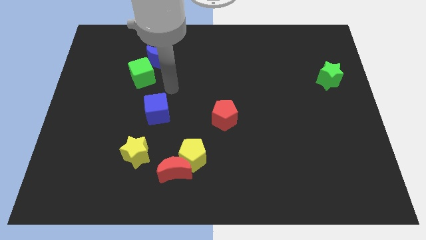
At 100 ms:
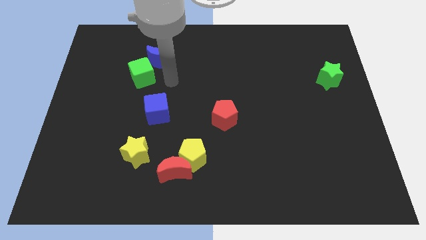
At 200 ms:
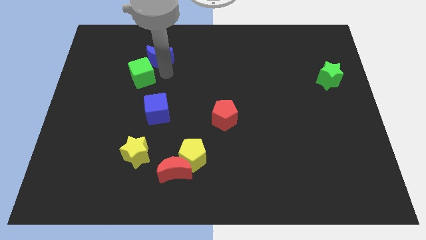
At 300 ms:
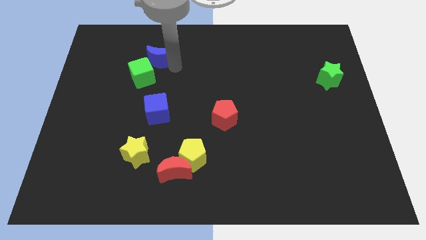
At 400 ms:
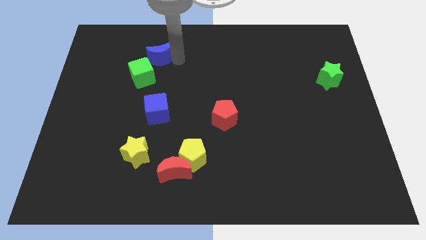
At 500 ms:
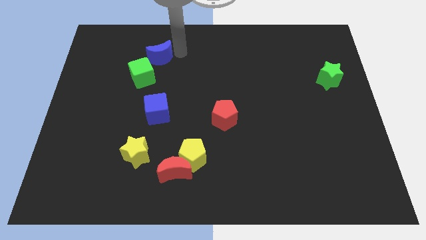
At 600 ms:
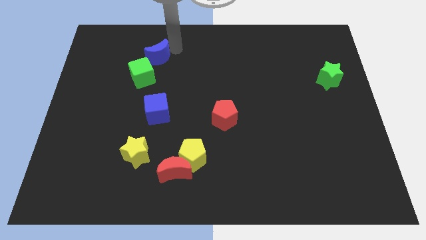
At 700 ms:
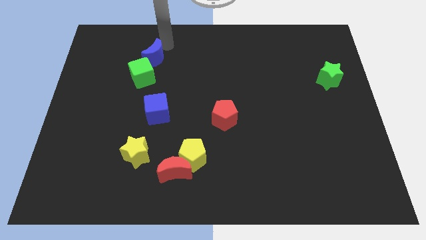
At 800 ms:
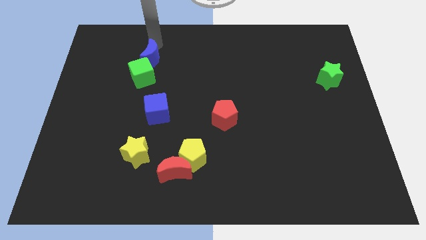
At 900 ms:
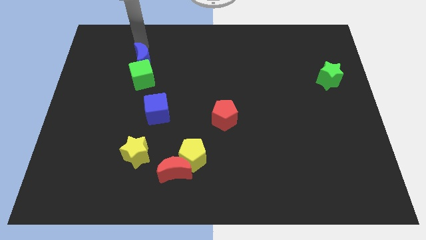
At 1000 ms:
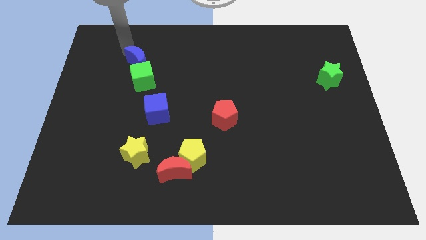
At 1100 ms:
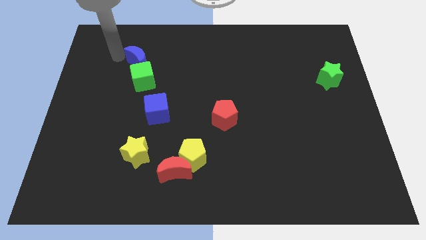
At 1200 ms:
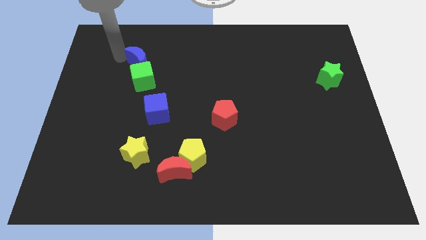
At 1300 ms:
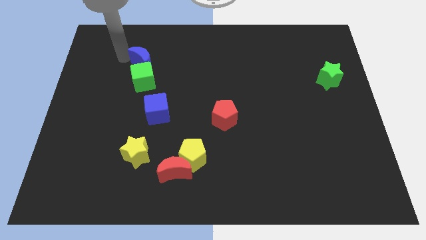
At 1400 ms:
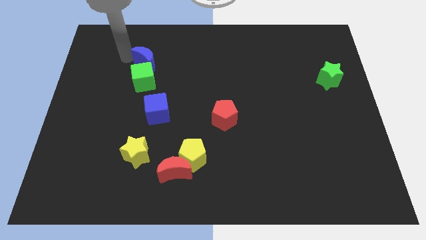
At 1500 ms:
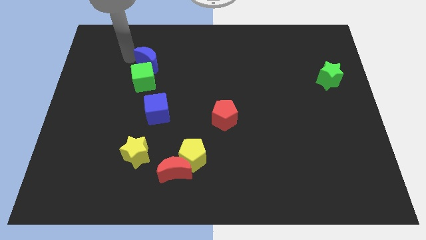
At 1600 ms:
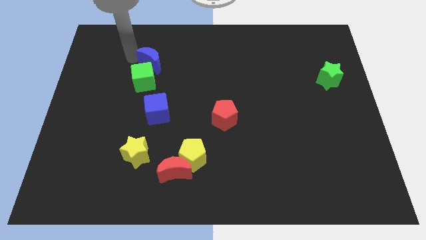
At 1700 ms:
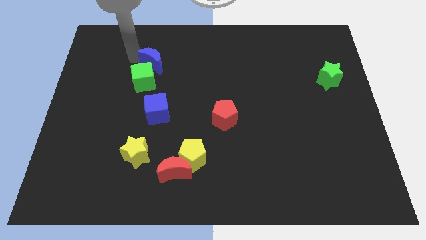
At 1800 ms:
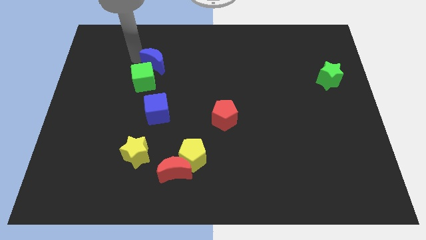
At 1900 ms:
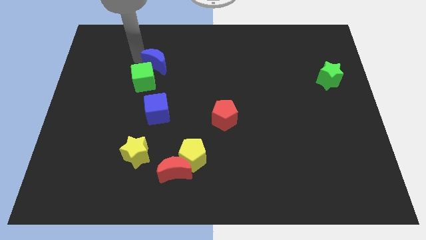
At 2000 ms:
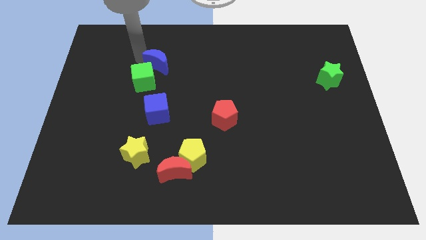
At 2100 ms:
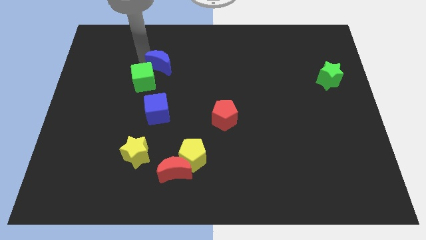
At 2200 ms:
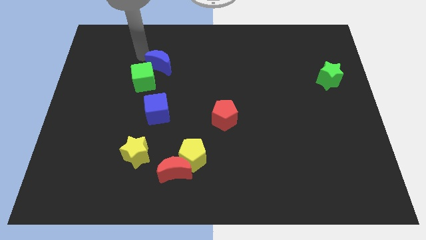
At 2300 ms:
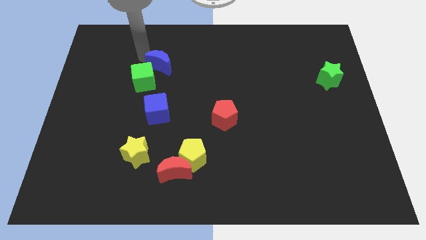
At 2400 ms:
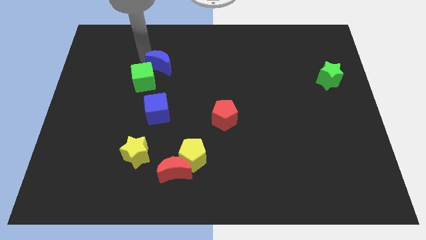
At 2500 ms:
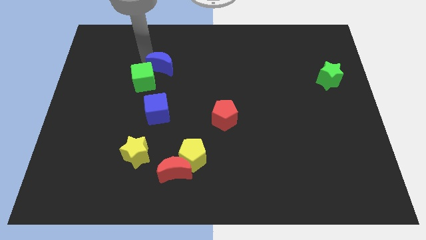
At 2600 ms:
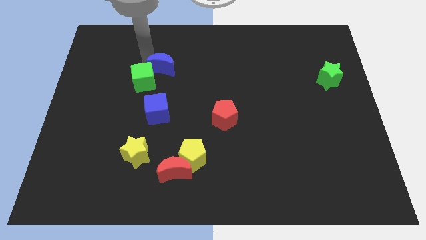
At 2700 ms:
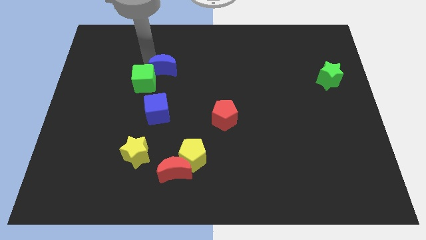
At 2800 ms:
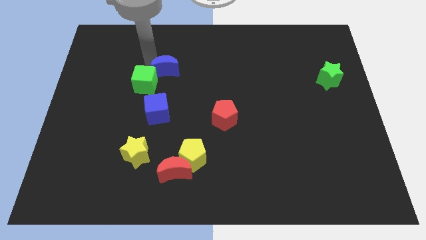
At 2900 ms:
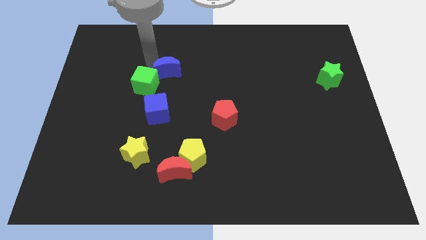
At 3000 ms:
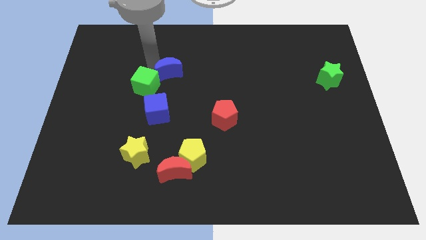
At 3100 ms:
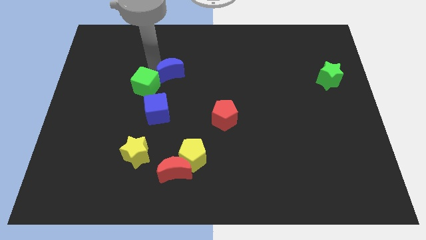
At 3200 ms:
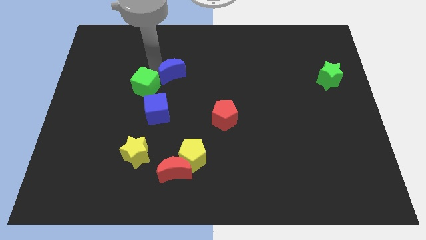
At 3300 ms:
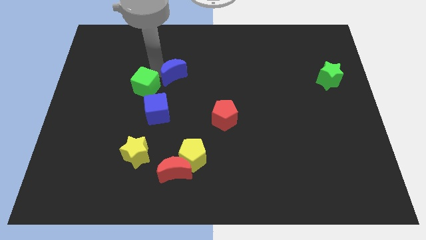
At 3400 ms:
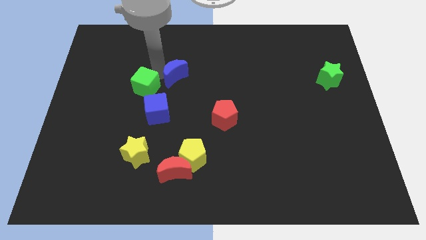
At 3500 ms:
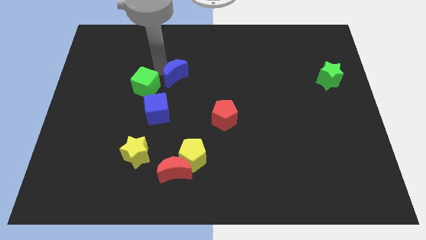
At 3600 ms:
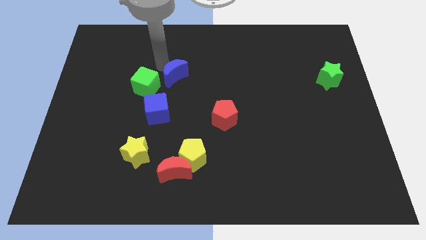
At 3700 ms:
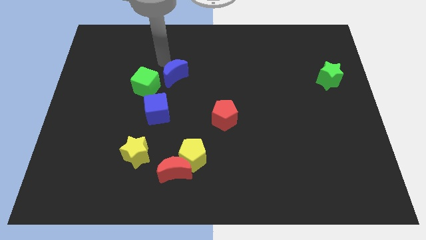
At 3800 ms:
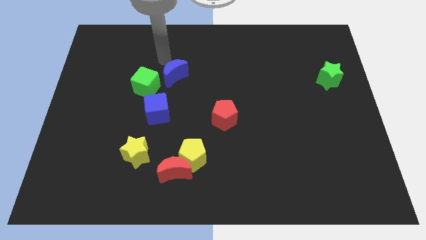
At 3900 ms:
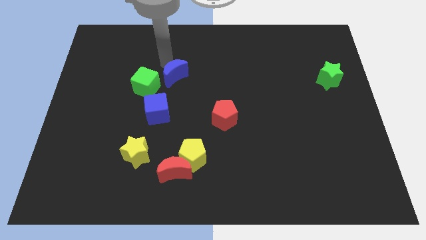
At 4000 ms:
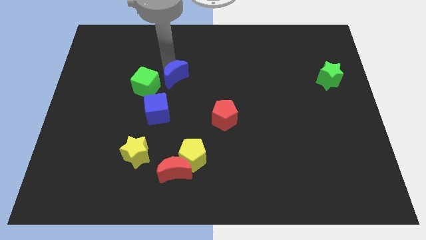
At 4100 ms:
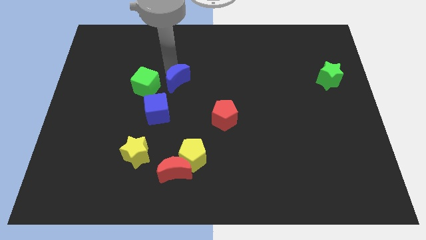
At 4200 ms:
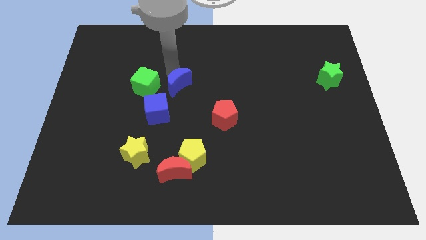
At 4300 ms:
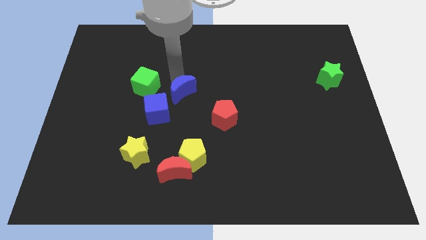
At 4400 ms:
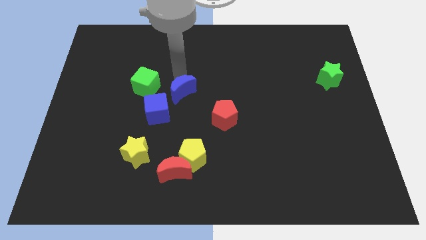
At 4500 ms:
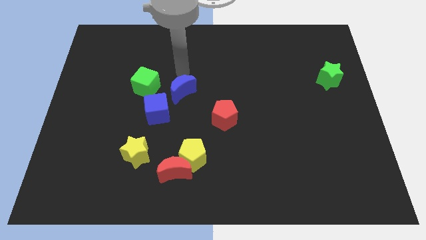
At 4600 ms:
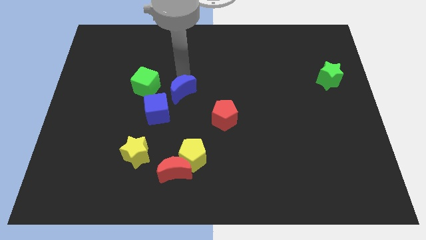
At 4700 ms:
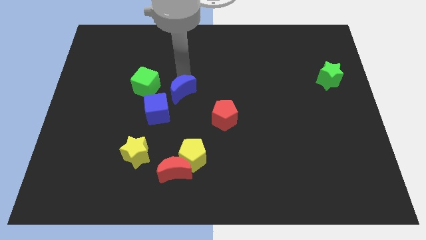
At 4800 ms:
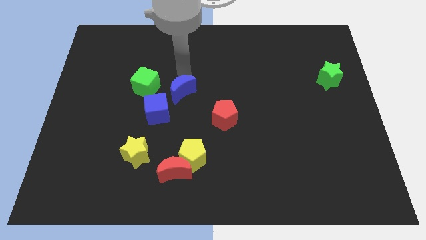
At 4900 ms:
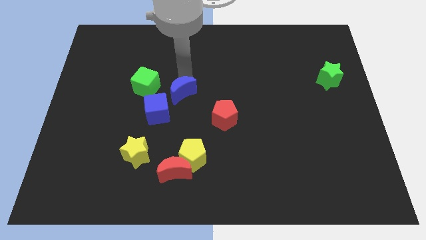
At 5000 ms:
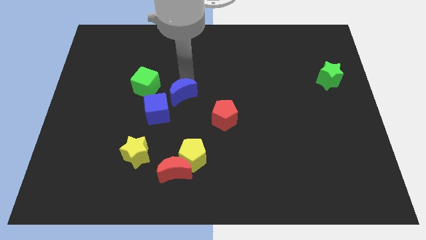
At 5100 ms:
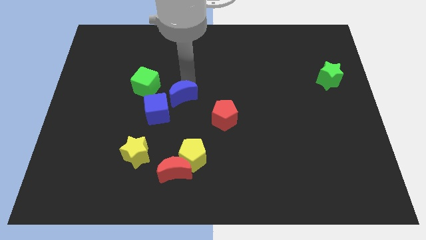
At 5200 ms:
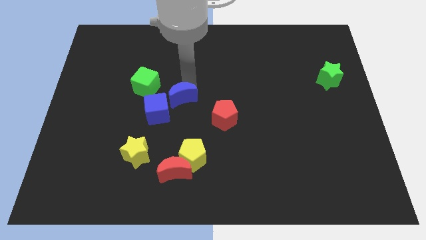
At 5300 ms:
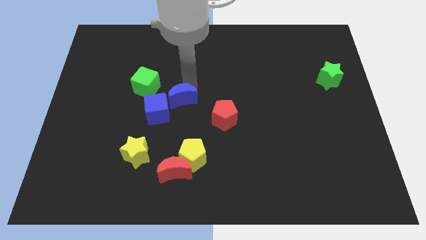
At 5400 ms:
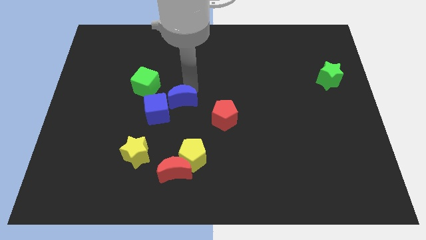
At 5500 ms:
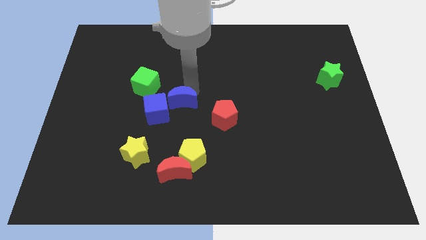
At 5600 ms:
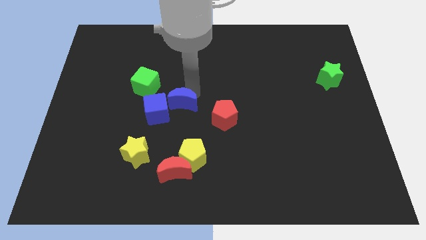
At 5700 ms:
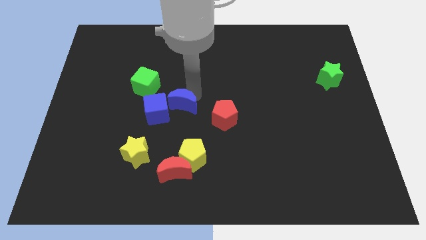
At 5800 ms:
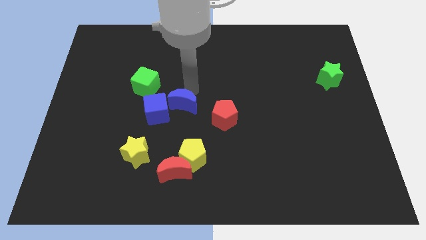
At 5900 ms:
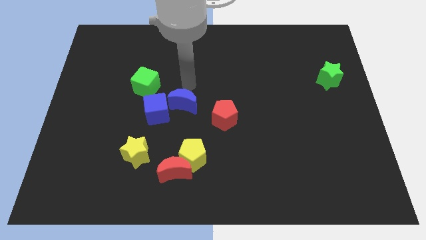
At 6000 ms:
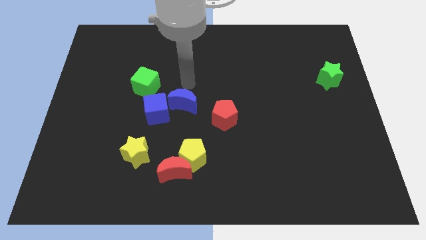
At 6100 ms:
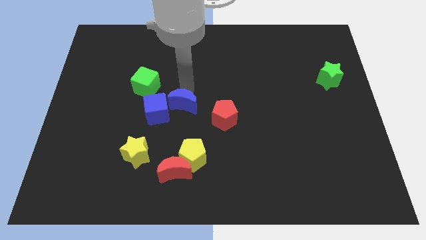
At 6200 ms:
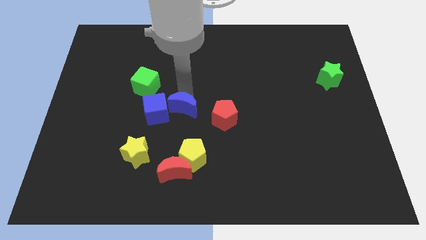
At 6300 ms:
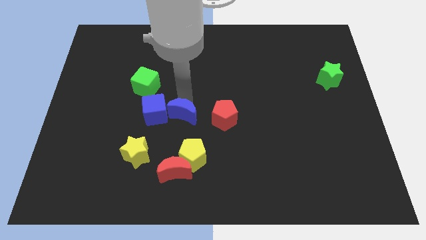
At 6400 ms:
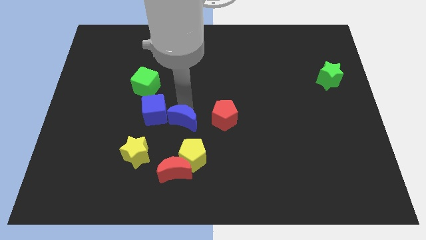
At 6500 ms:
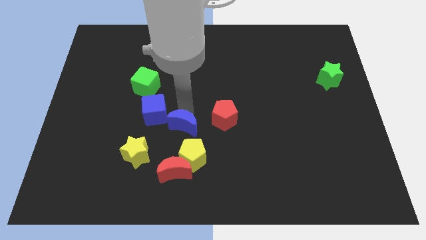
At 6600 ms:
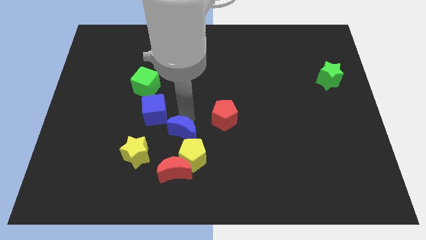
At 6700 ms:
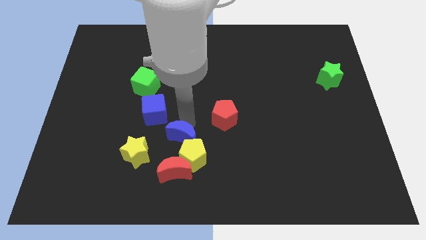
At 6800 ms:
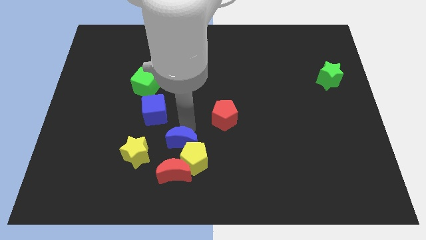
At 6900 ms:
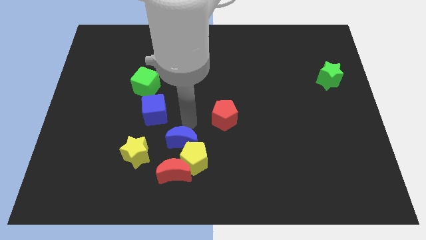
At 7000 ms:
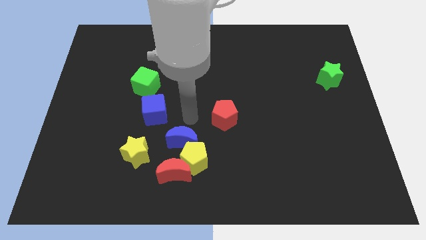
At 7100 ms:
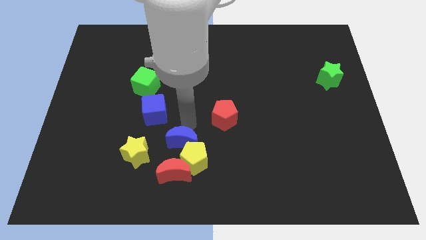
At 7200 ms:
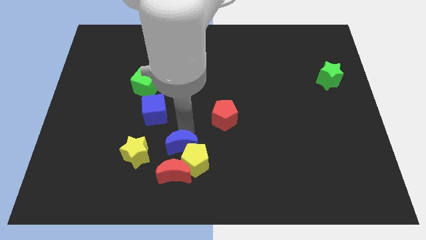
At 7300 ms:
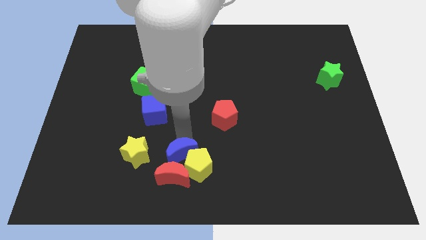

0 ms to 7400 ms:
push the blue moon to the red moon
